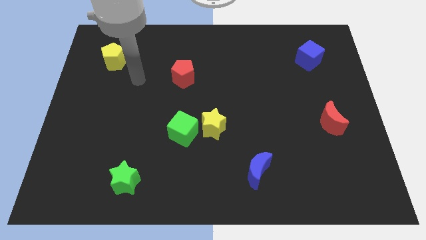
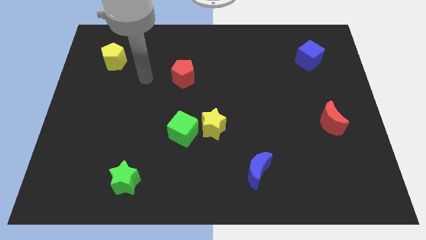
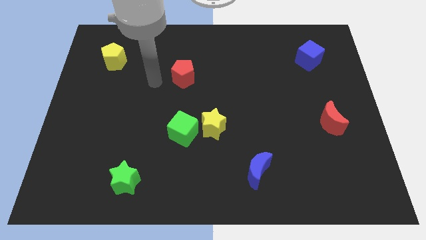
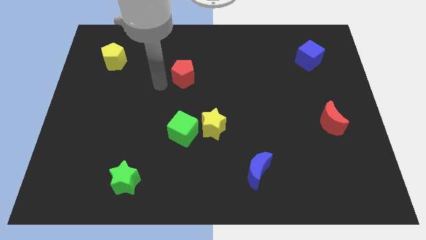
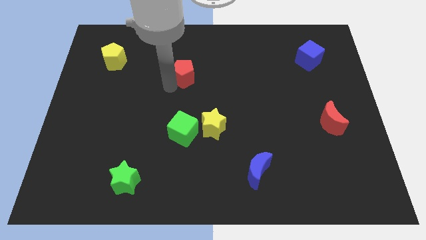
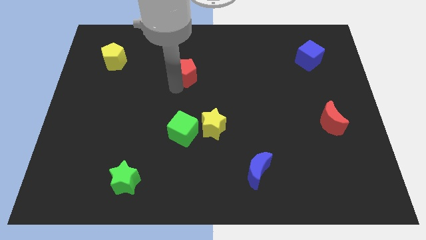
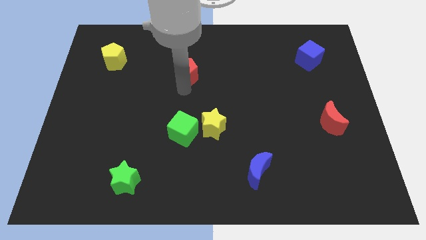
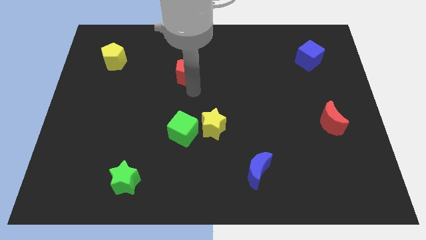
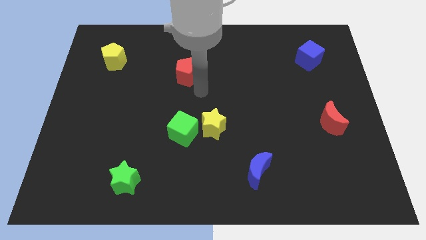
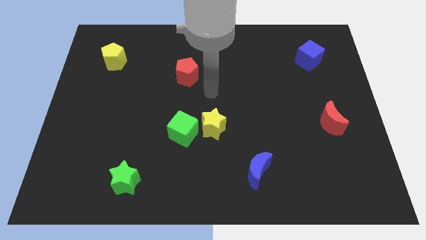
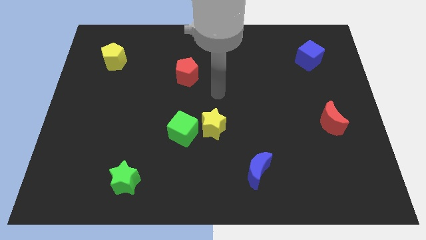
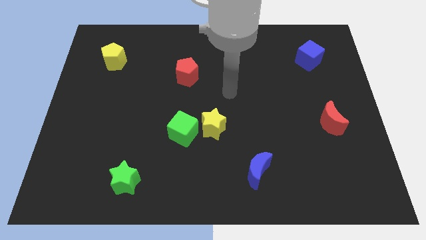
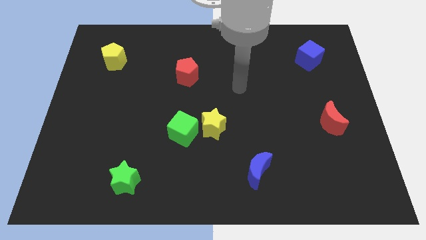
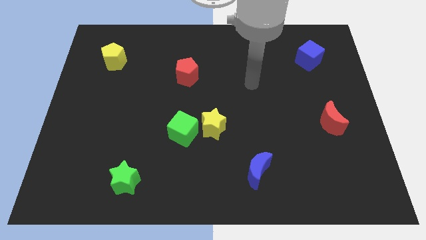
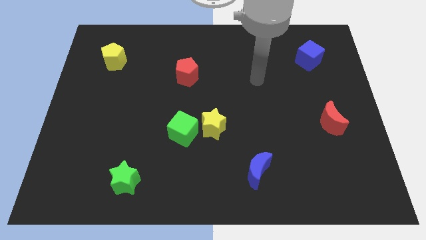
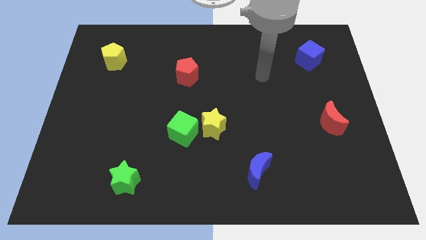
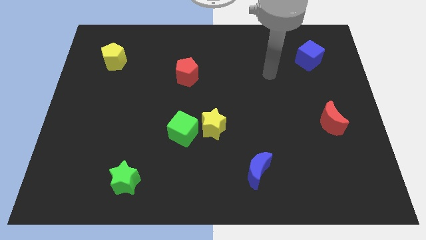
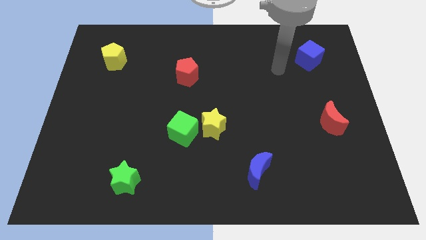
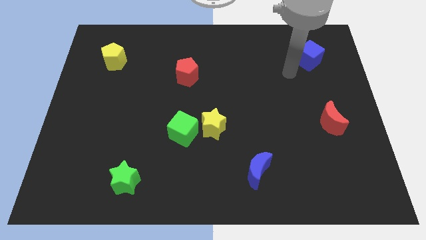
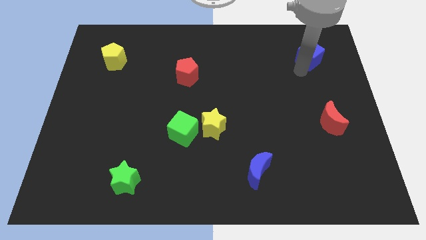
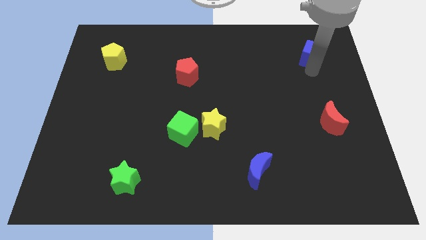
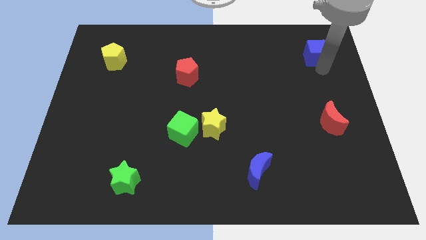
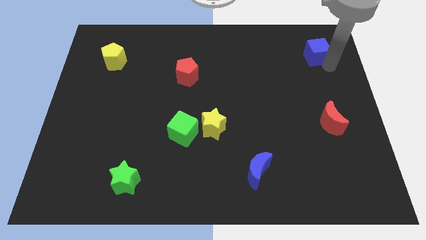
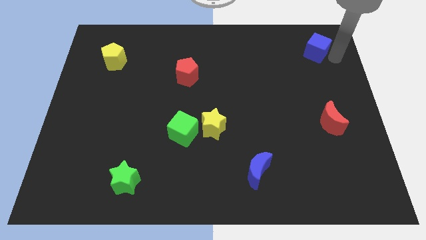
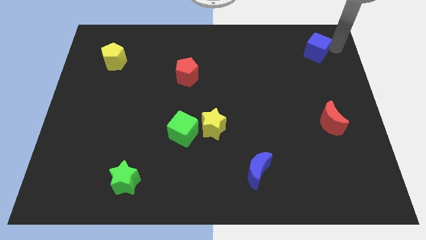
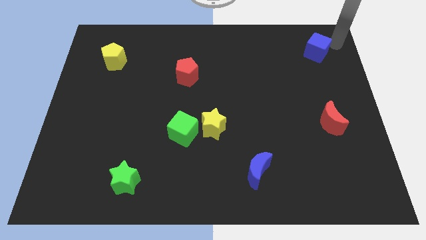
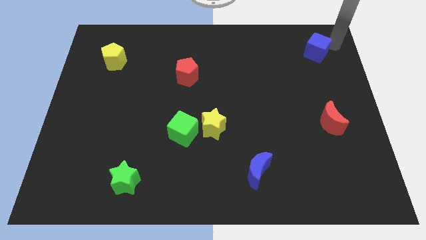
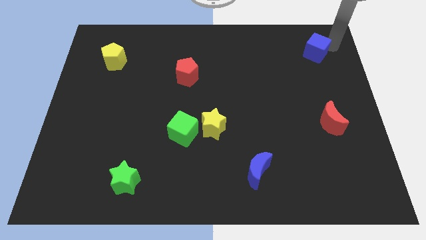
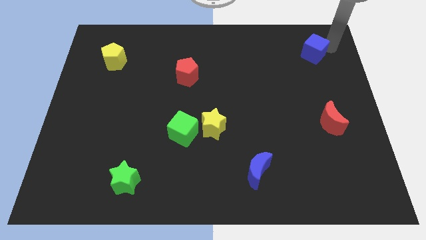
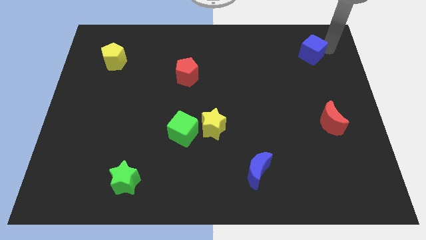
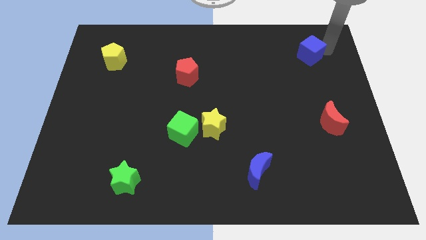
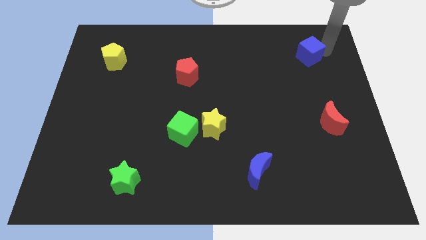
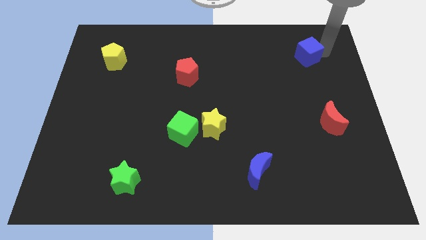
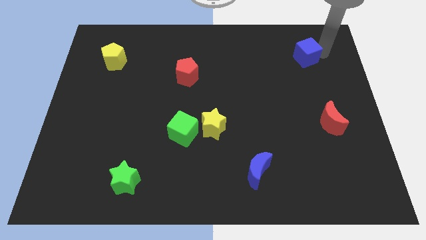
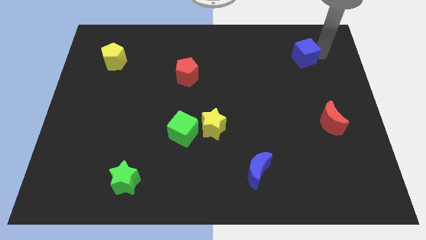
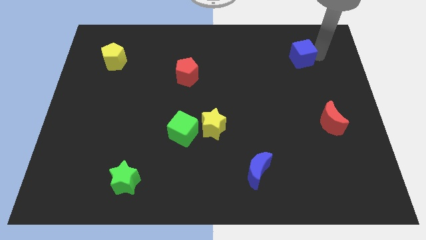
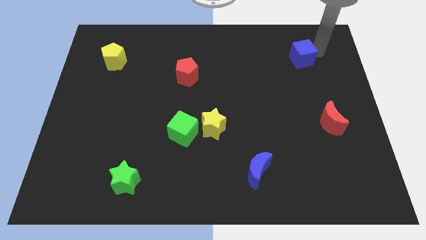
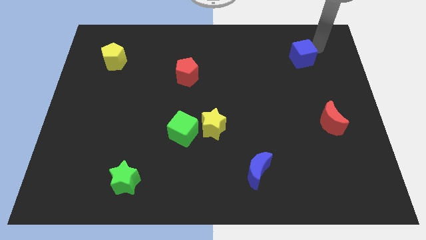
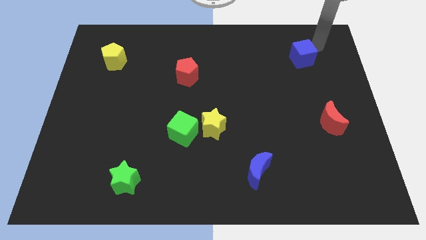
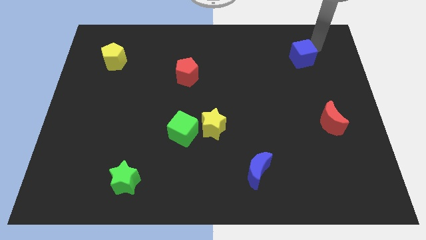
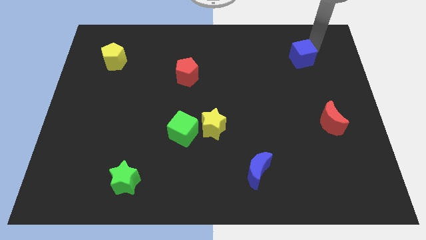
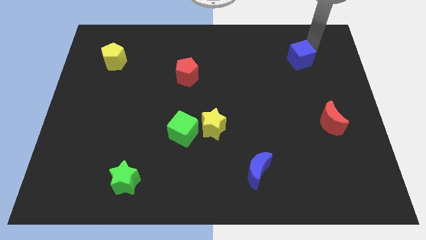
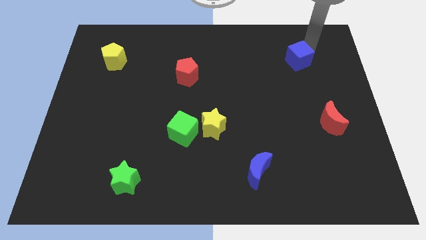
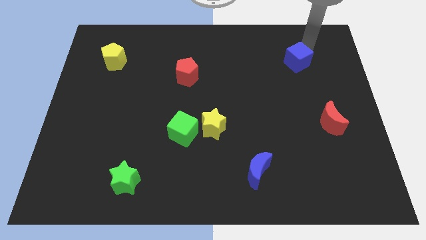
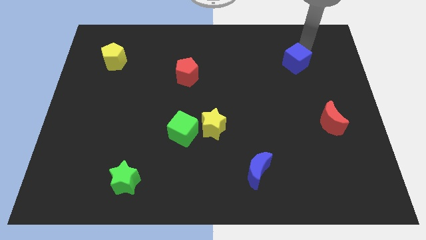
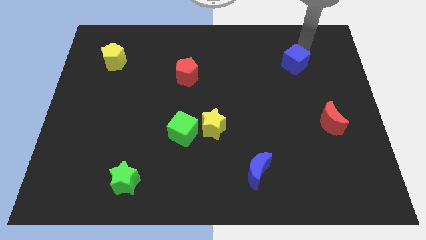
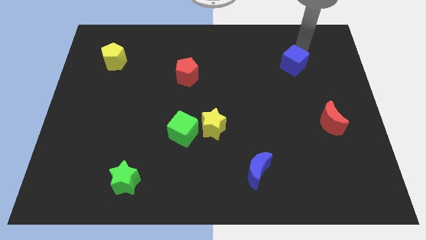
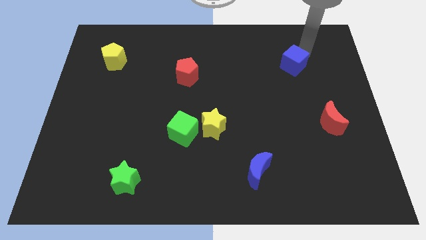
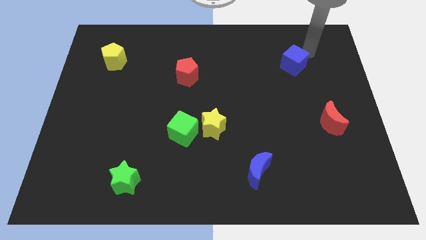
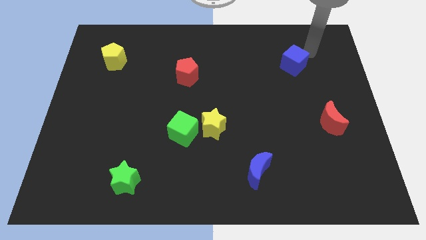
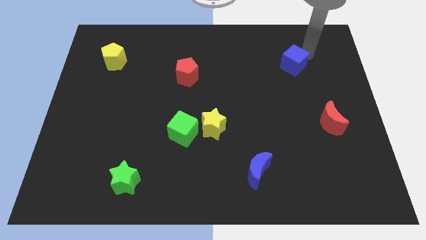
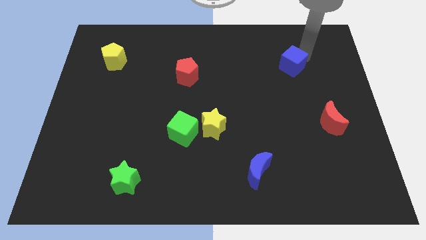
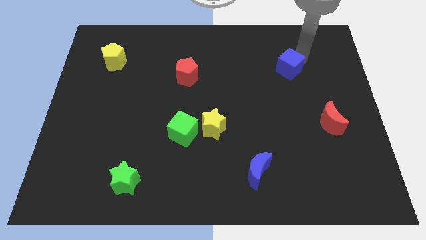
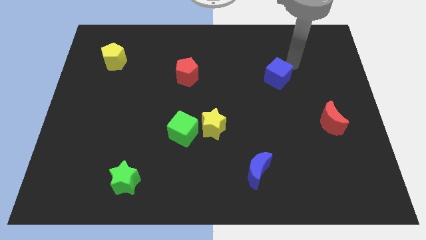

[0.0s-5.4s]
push the blue cube a little bit down and then to the left

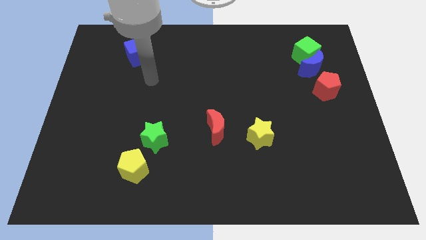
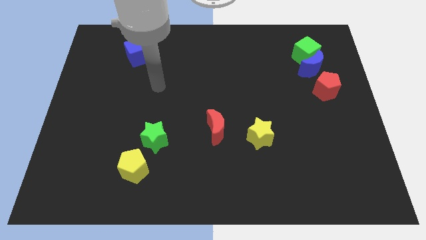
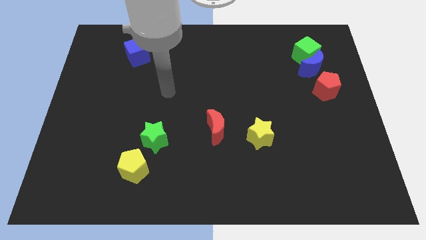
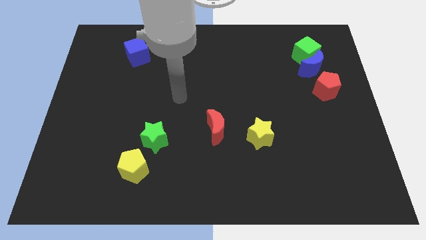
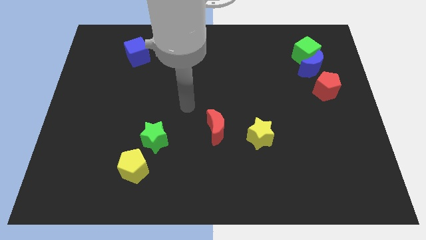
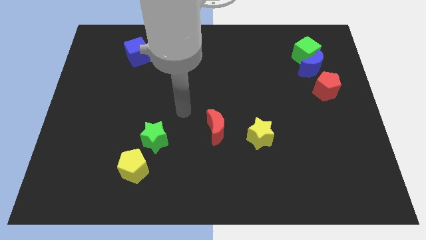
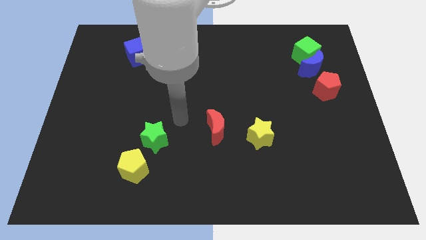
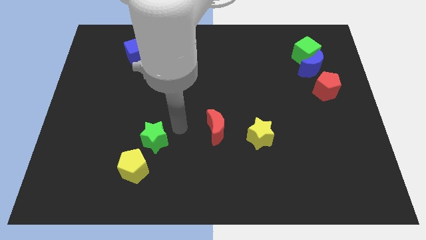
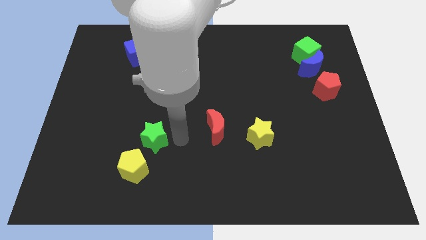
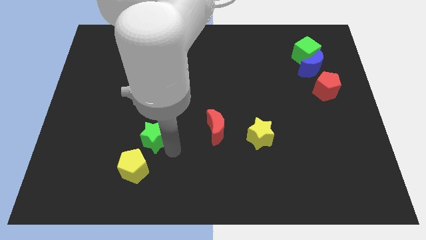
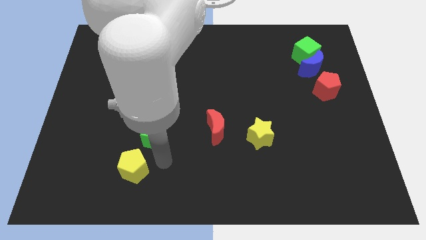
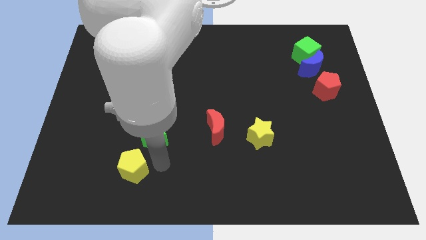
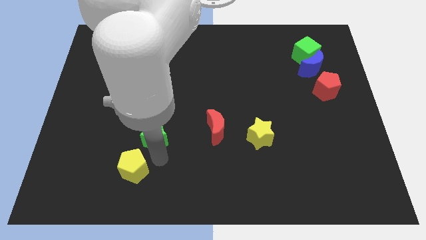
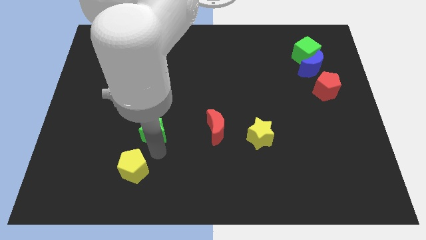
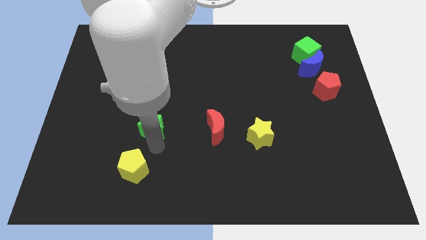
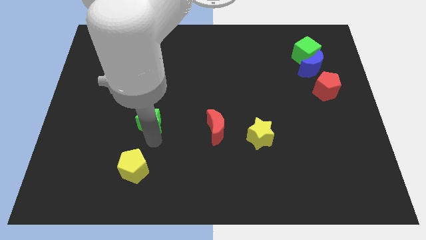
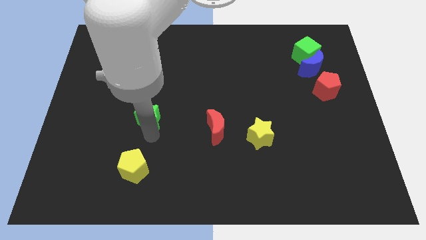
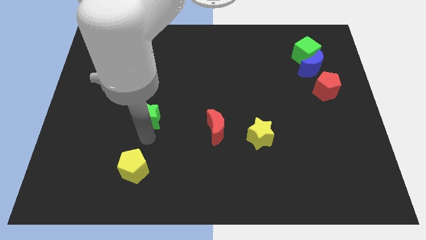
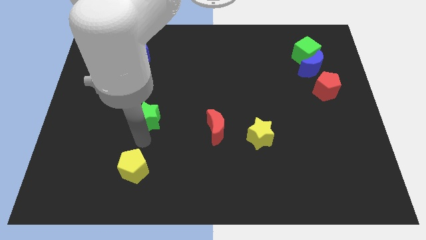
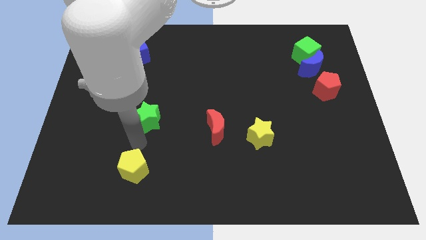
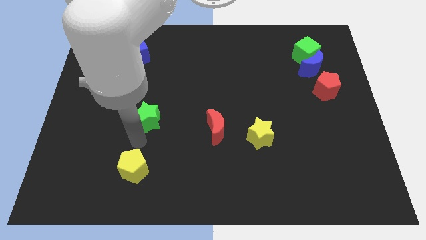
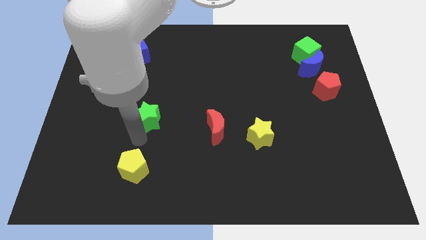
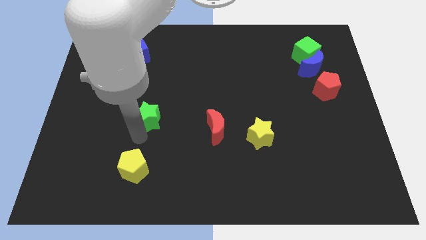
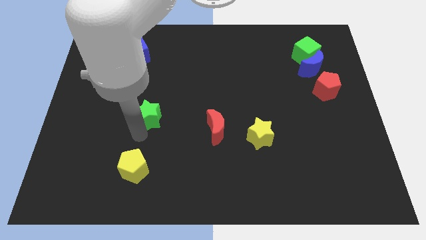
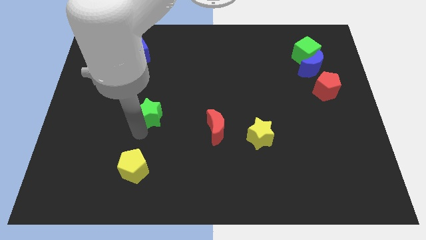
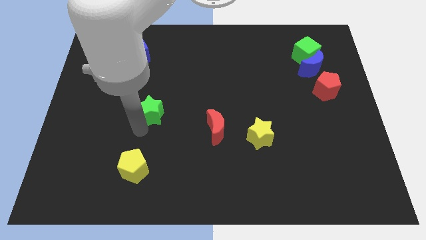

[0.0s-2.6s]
push the green star somewhat upwards
